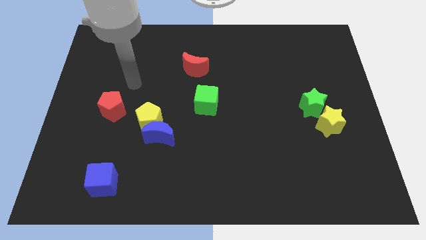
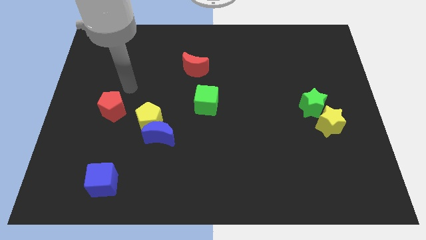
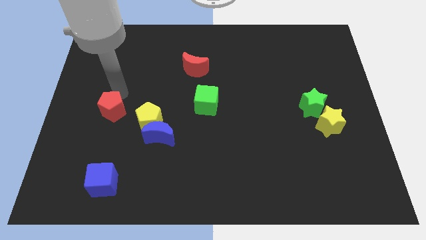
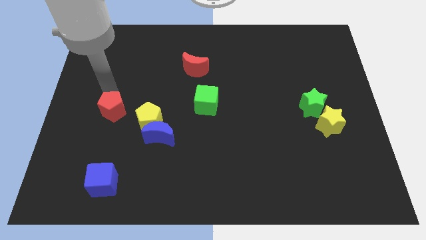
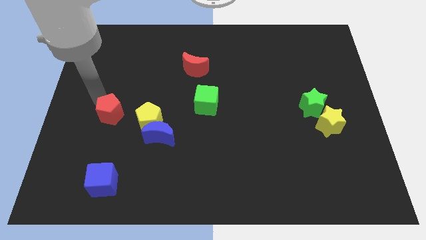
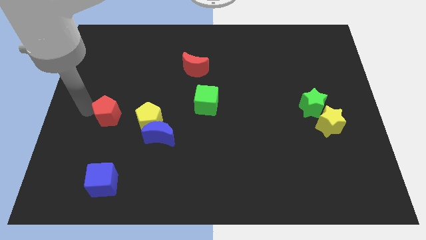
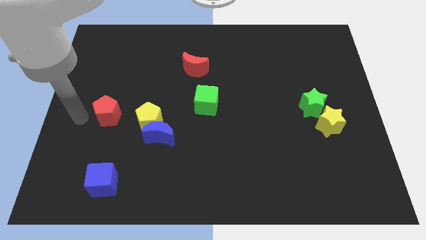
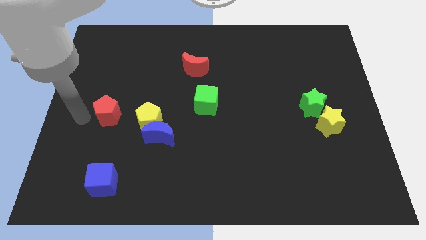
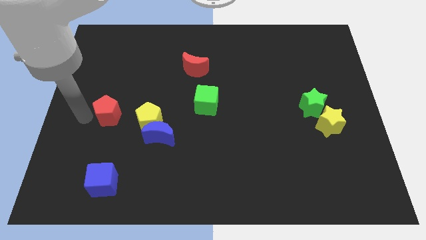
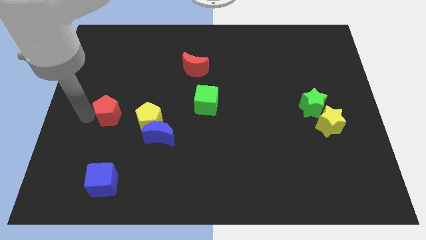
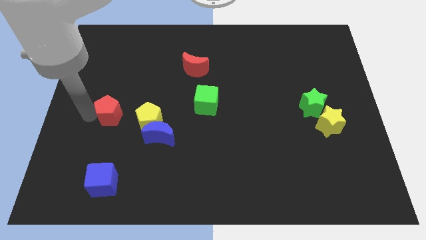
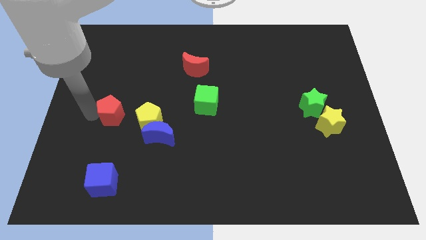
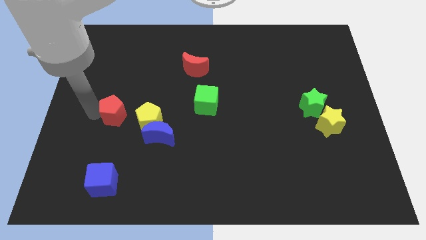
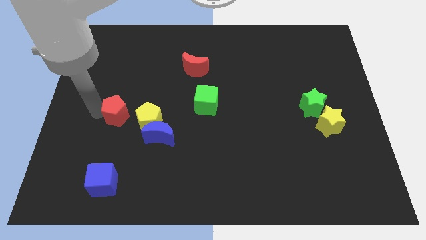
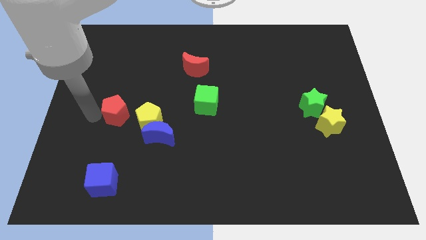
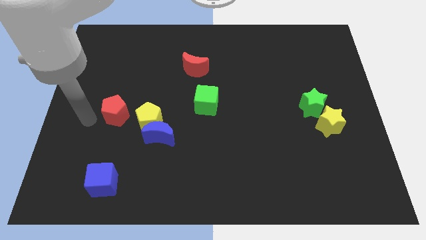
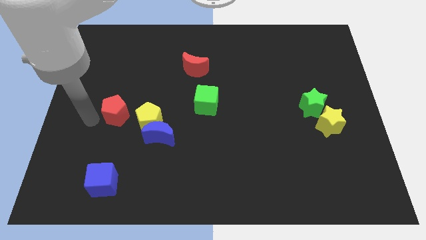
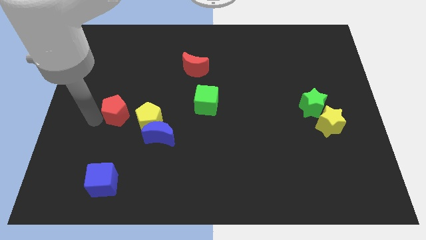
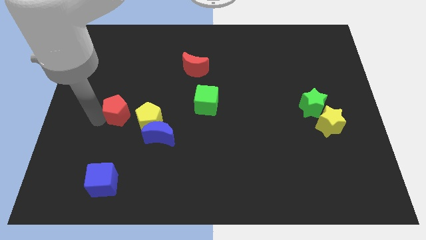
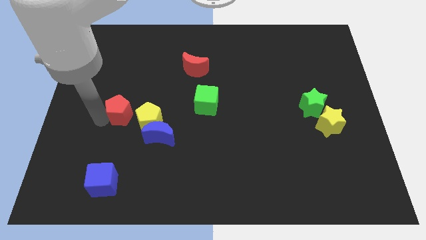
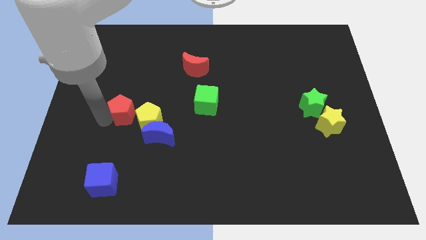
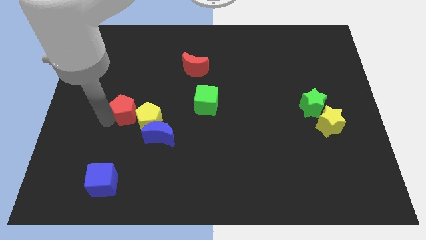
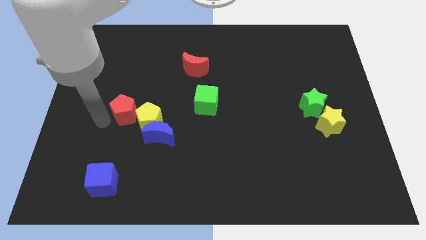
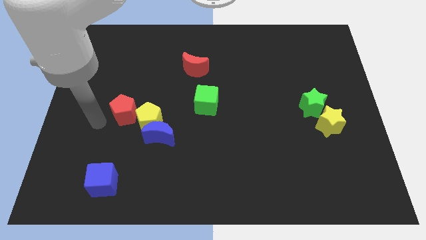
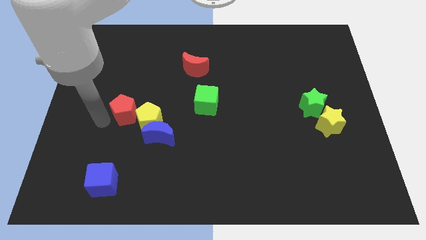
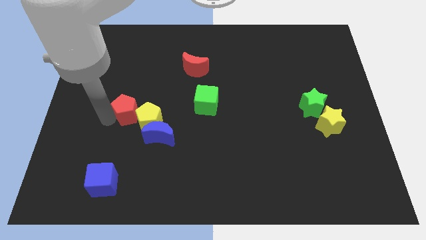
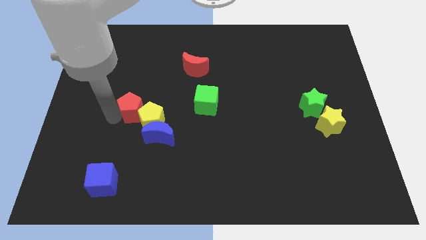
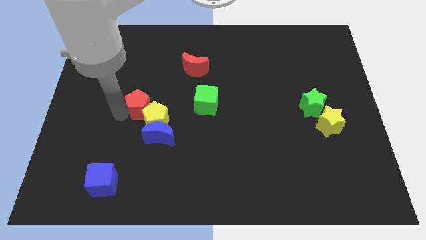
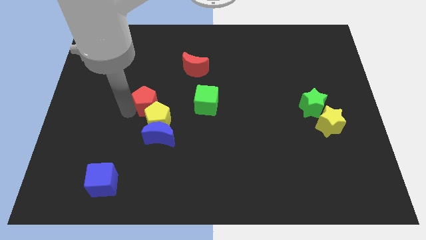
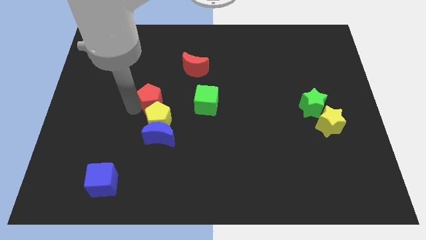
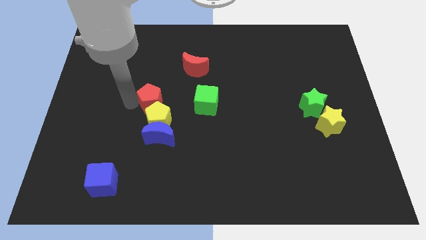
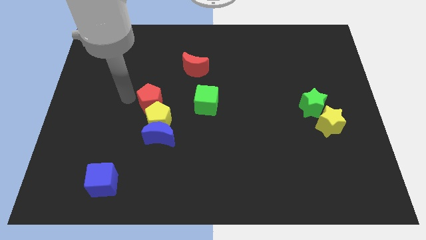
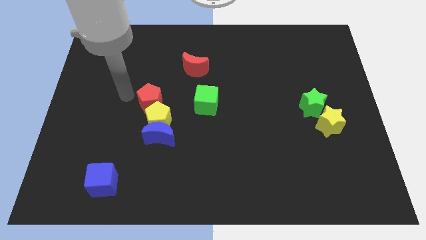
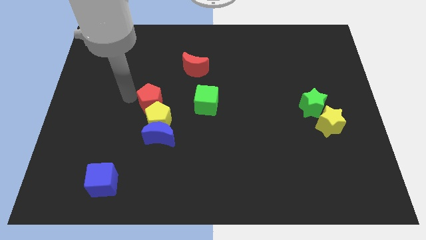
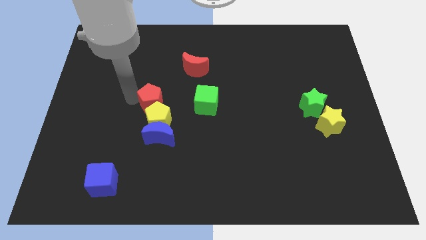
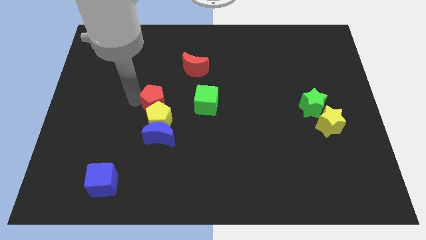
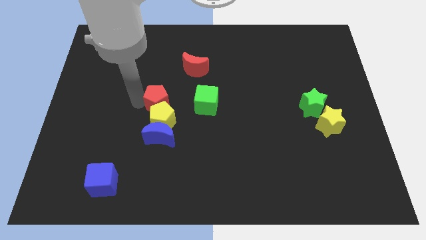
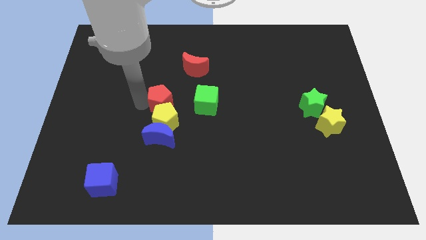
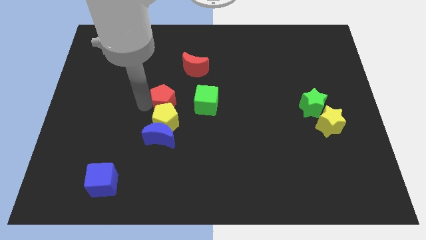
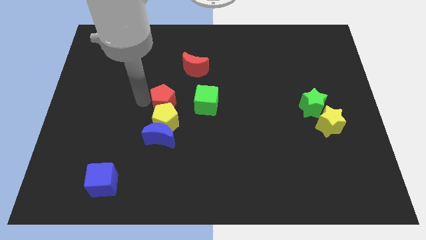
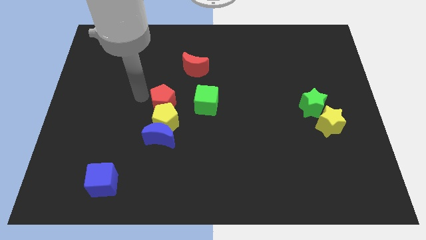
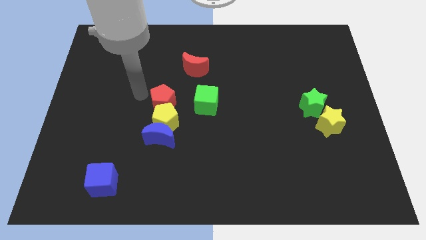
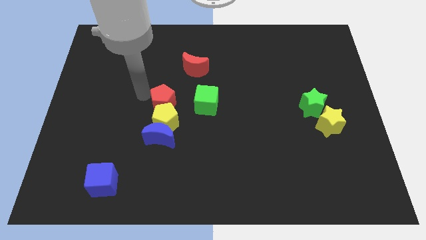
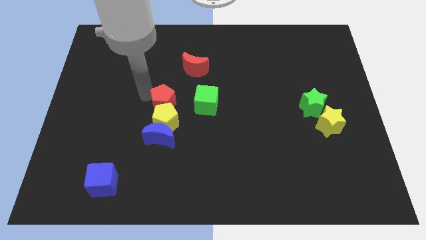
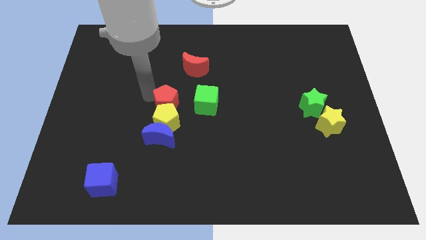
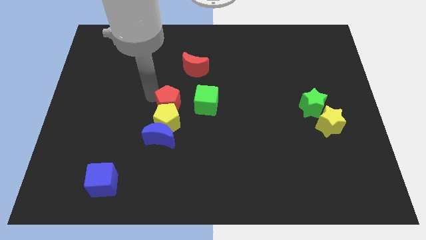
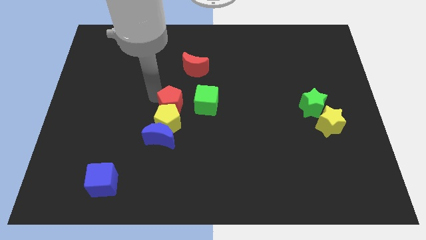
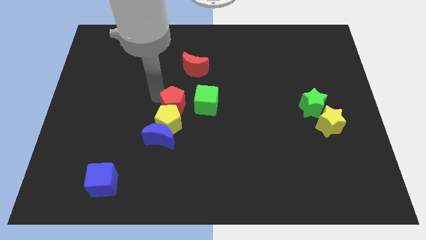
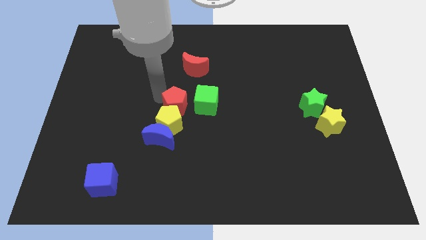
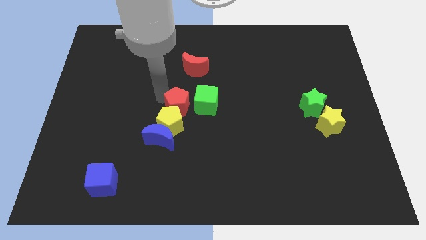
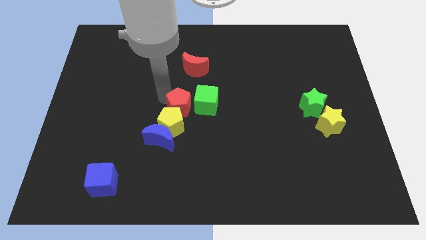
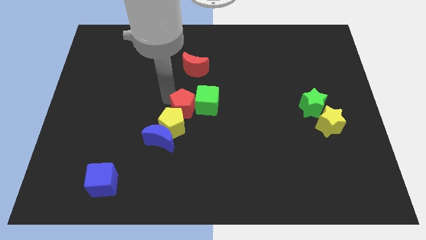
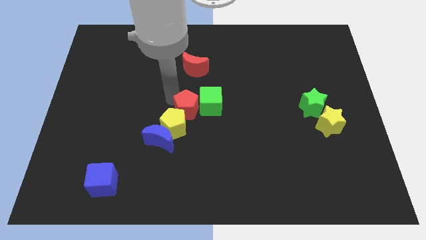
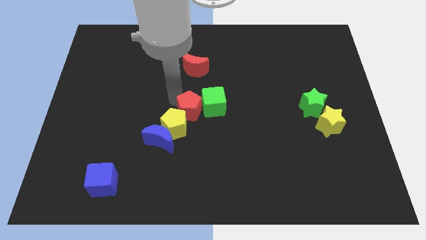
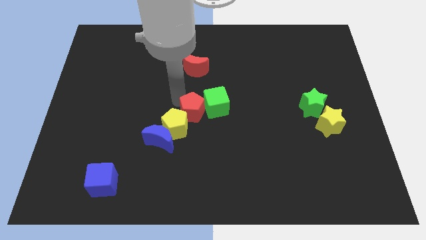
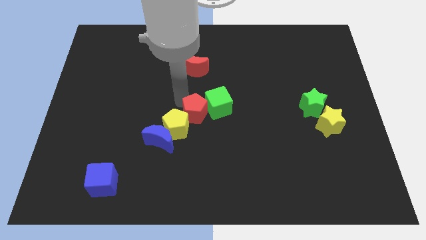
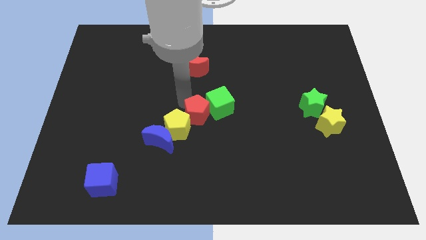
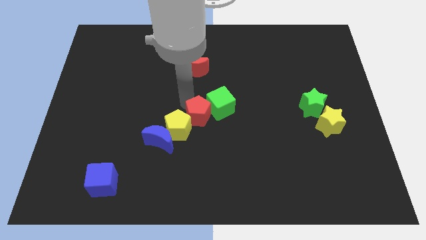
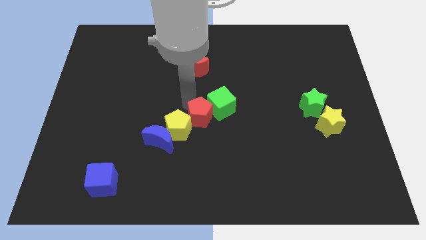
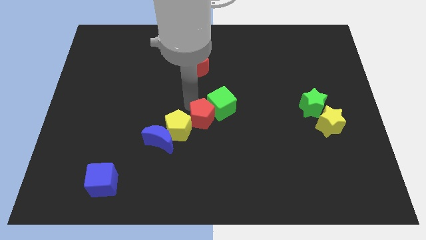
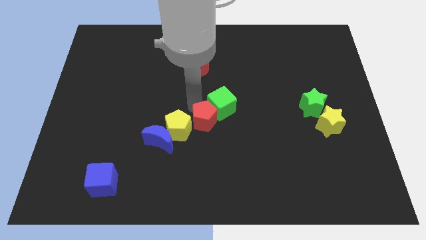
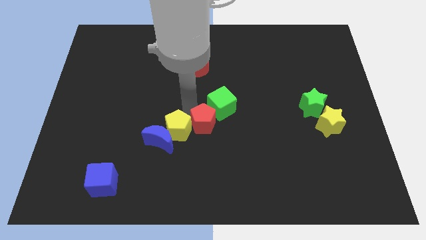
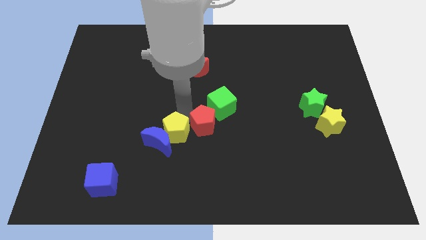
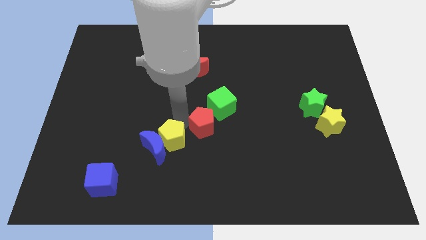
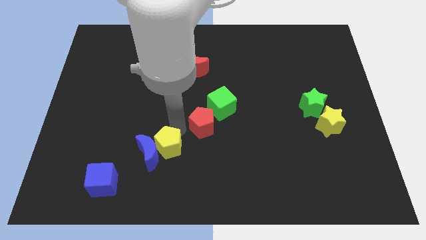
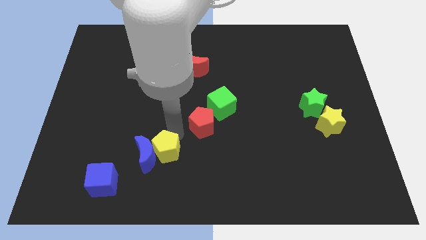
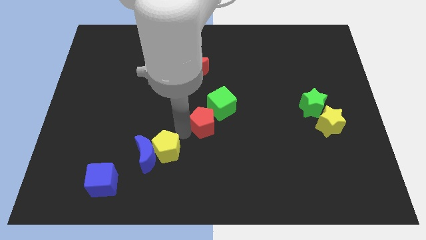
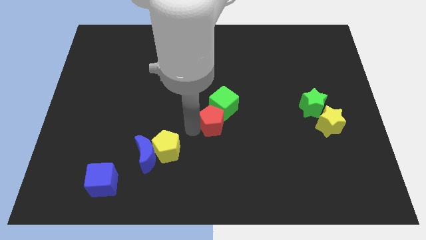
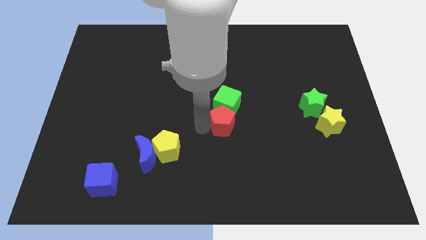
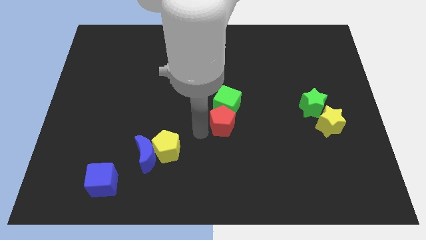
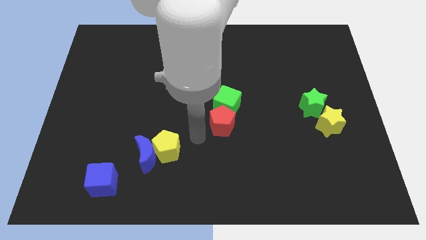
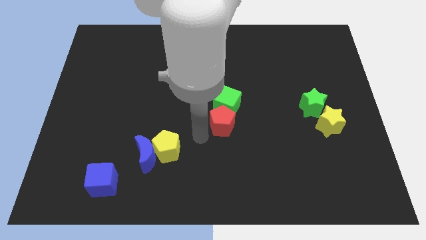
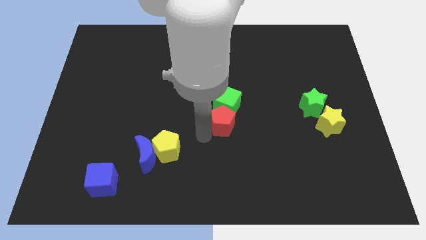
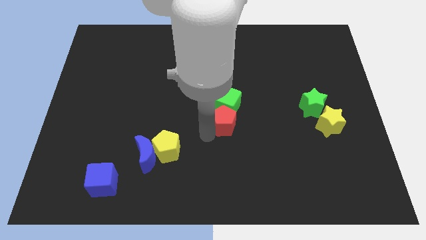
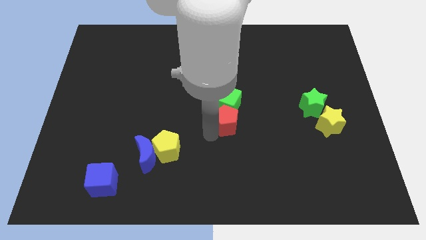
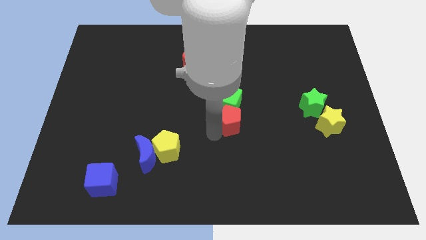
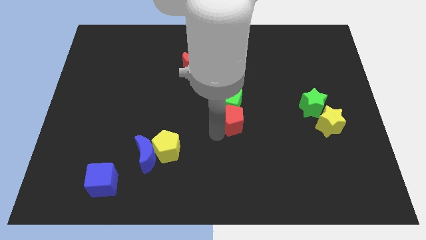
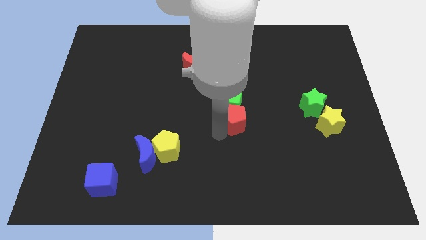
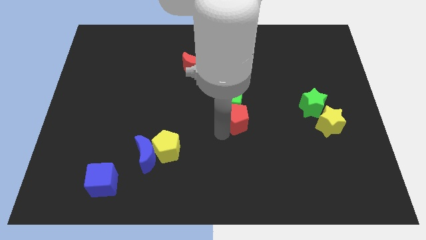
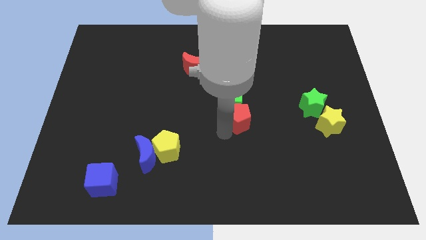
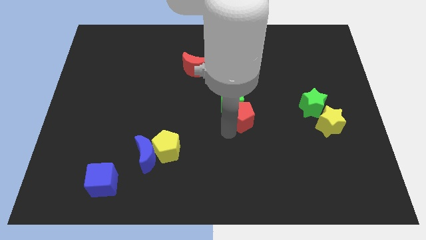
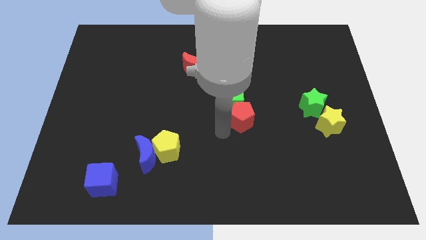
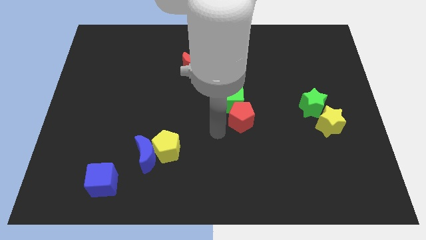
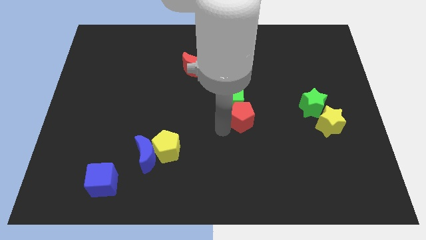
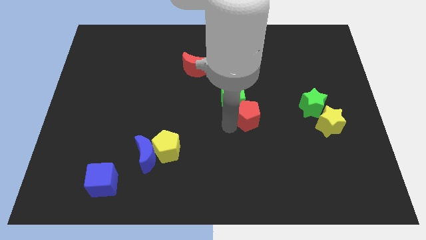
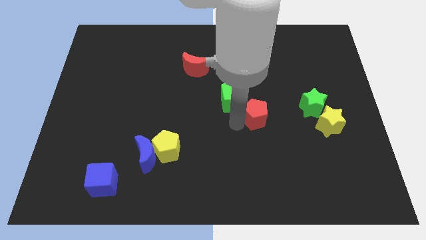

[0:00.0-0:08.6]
push the red pentagon to the left of the green star

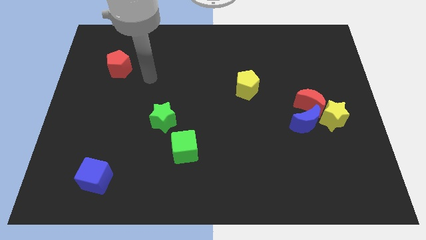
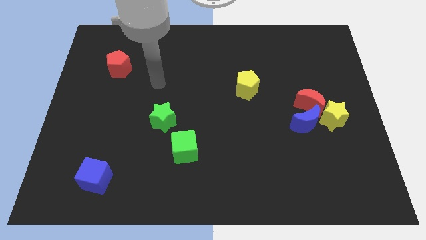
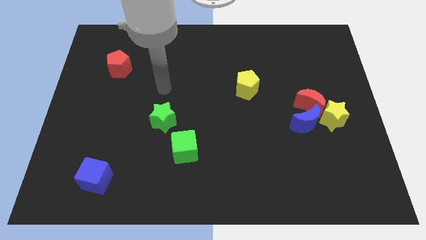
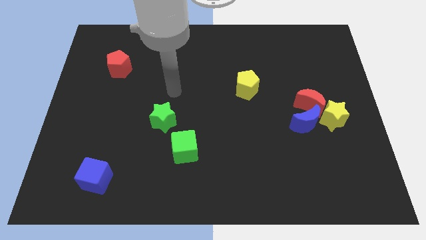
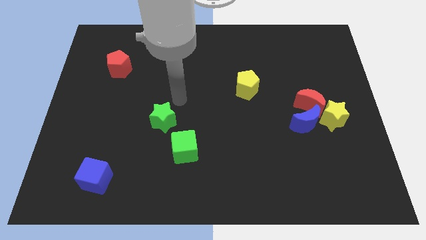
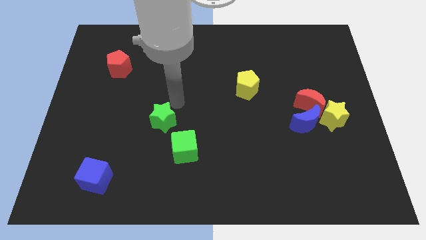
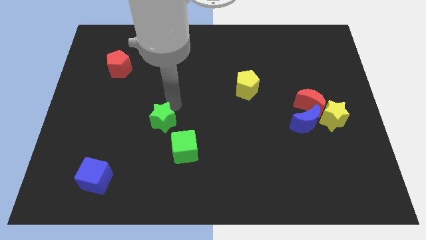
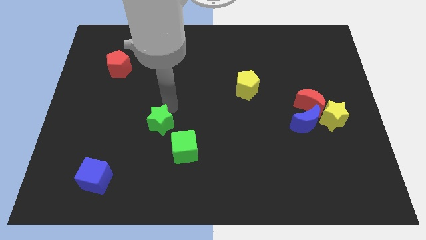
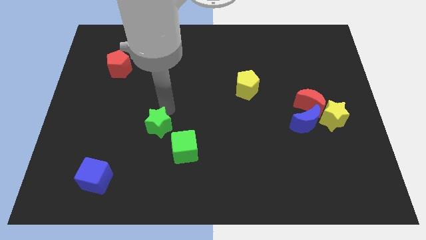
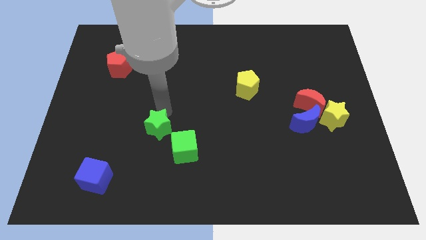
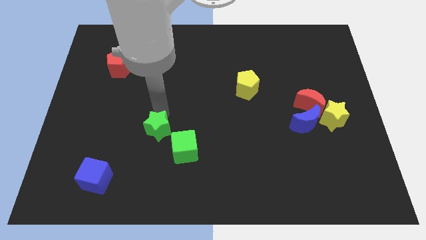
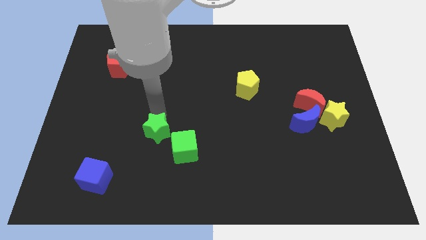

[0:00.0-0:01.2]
slide the green star to the left of the green cube
